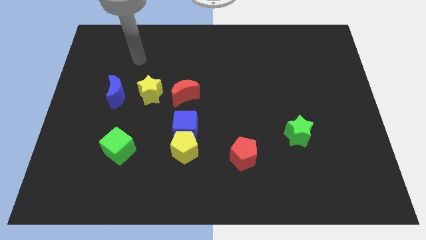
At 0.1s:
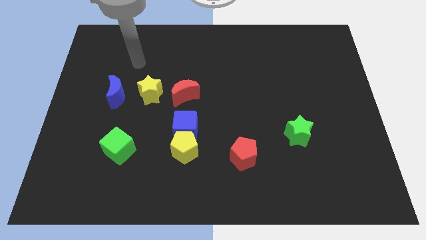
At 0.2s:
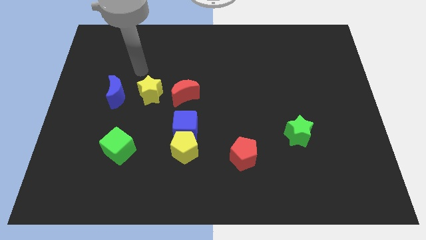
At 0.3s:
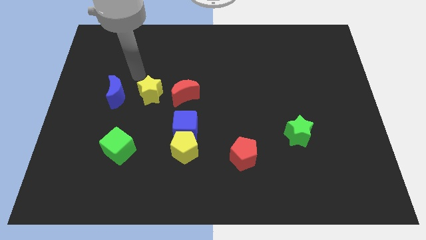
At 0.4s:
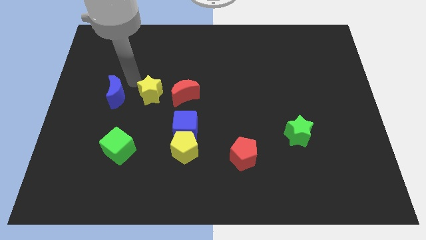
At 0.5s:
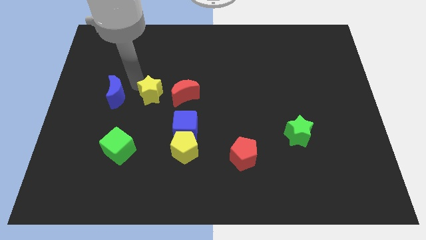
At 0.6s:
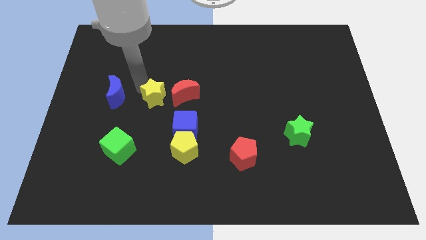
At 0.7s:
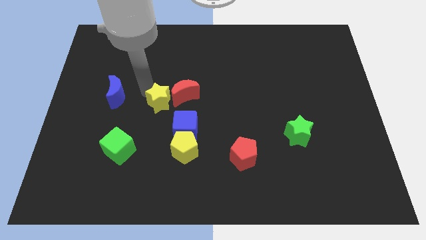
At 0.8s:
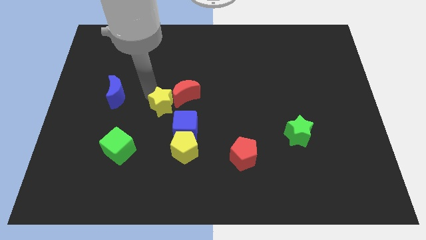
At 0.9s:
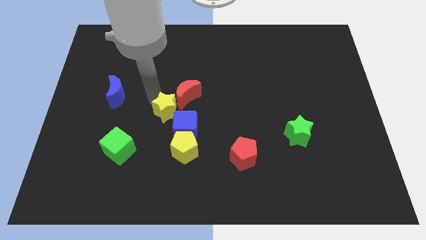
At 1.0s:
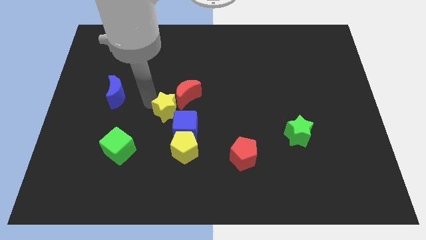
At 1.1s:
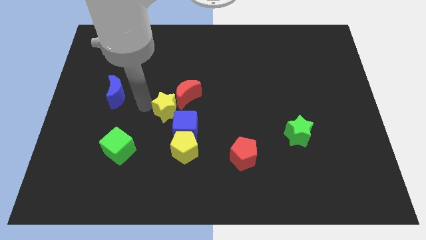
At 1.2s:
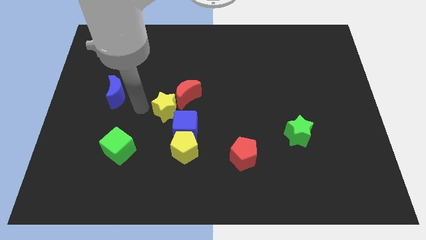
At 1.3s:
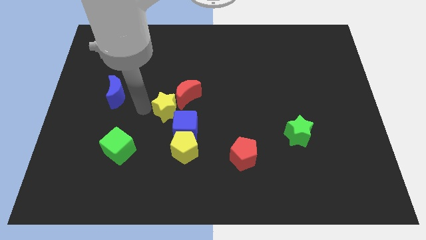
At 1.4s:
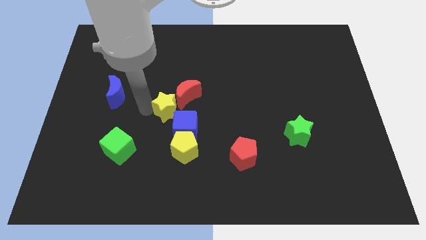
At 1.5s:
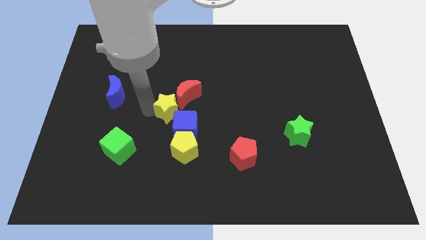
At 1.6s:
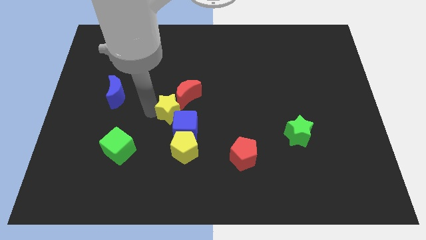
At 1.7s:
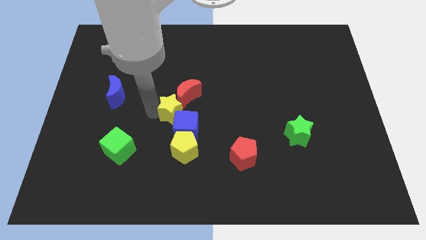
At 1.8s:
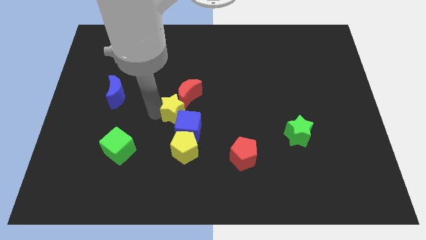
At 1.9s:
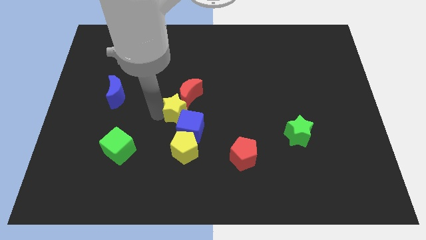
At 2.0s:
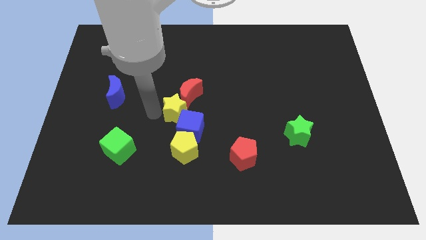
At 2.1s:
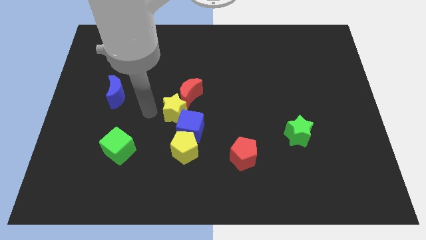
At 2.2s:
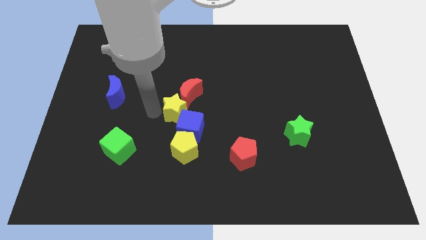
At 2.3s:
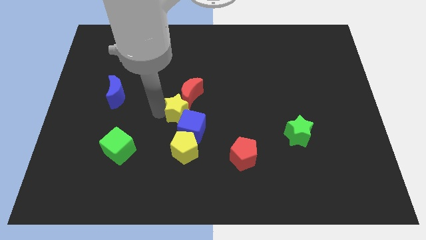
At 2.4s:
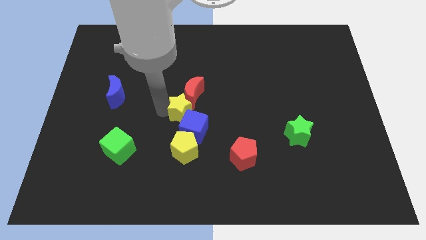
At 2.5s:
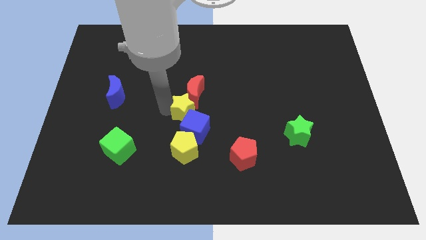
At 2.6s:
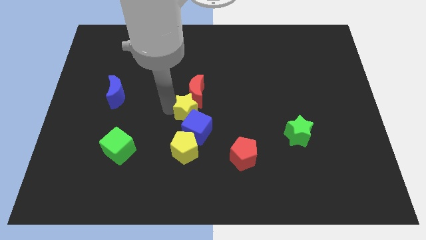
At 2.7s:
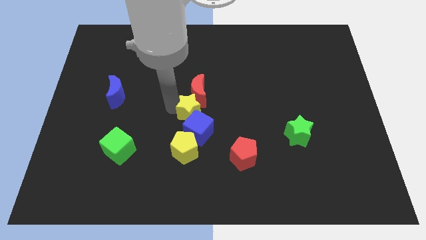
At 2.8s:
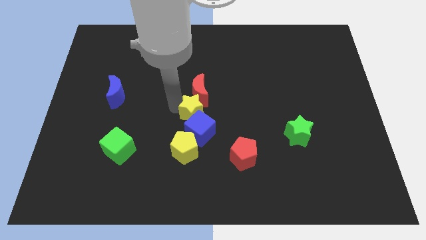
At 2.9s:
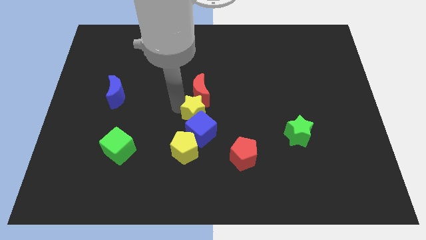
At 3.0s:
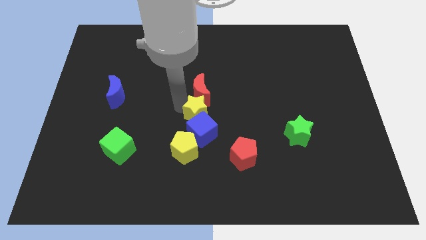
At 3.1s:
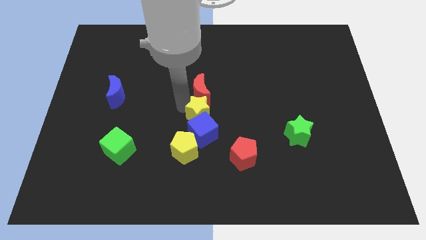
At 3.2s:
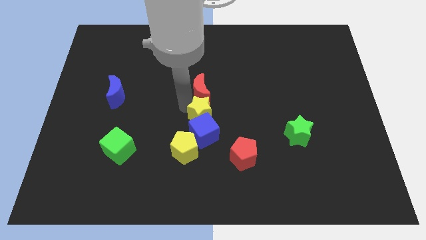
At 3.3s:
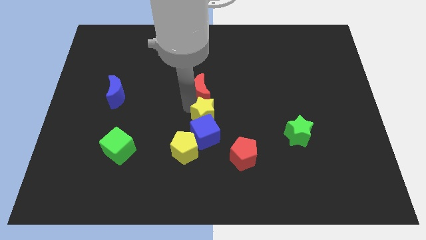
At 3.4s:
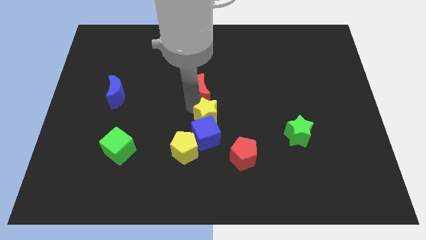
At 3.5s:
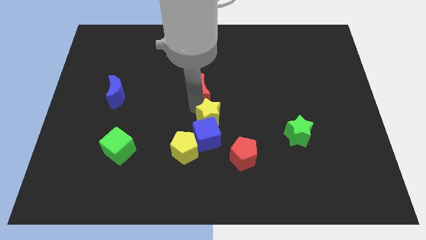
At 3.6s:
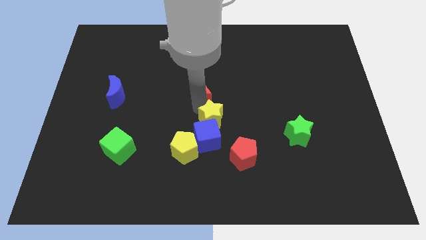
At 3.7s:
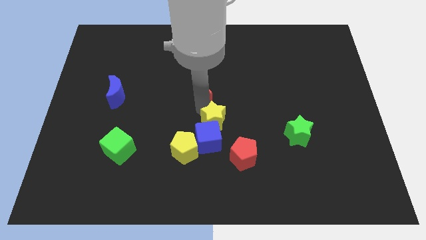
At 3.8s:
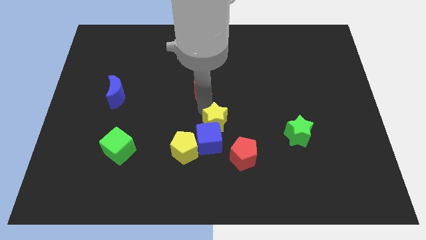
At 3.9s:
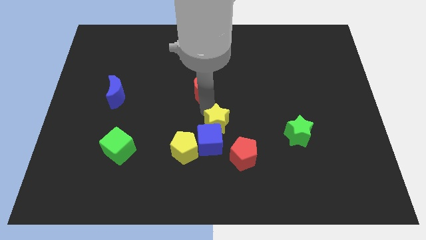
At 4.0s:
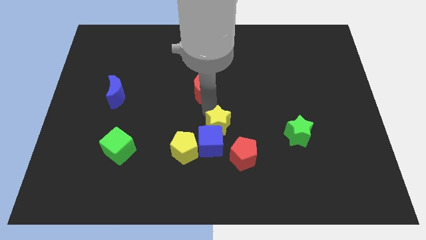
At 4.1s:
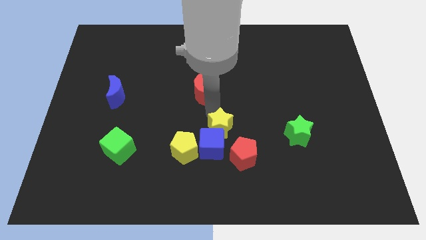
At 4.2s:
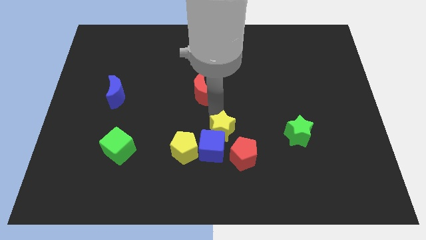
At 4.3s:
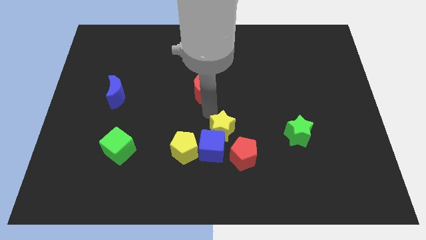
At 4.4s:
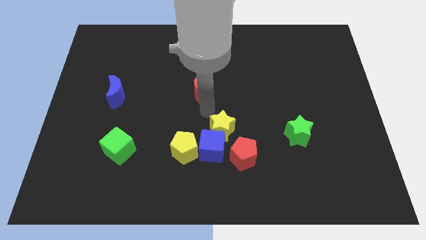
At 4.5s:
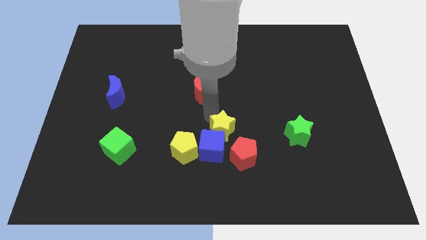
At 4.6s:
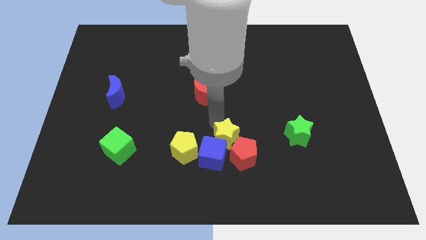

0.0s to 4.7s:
push the yellow star next to the red pentagon

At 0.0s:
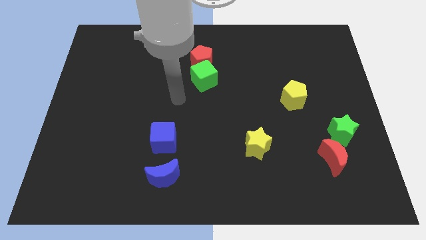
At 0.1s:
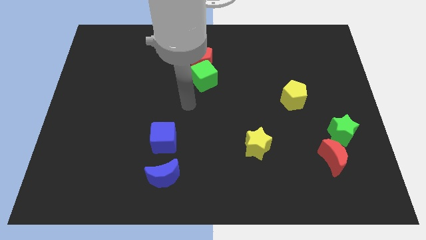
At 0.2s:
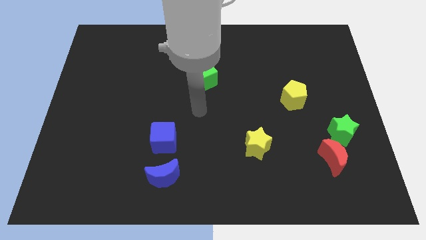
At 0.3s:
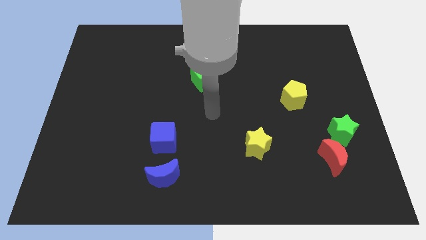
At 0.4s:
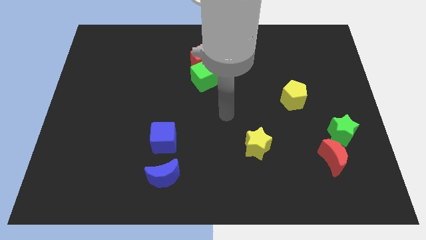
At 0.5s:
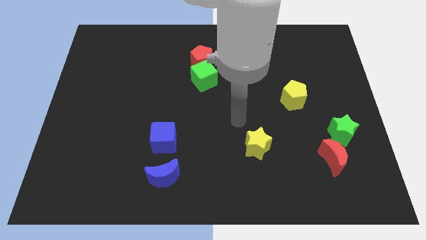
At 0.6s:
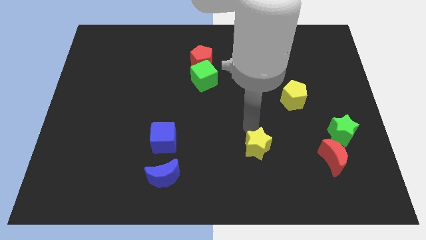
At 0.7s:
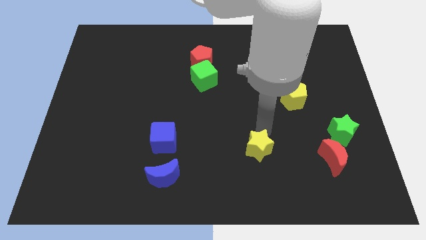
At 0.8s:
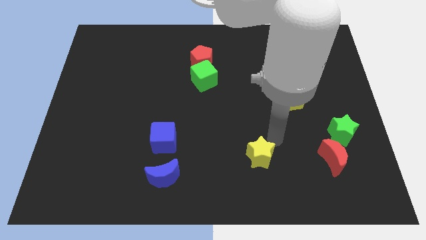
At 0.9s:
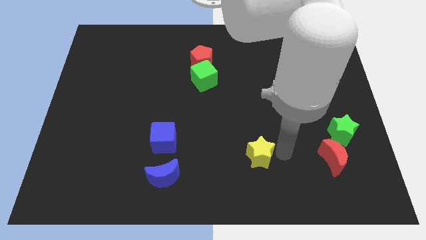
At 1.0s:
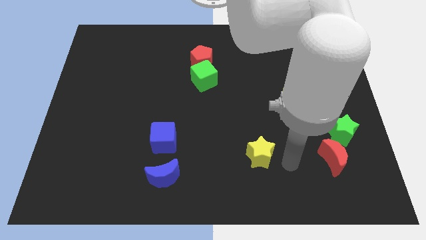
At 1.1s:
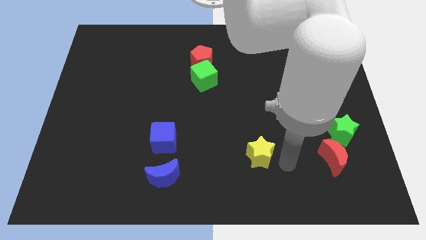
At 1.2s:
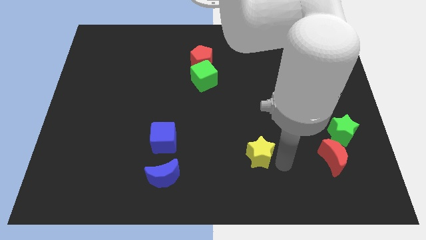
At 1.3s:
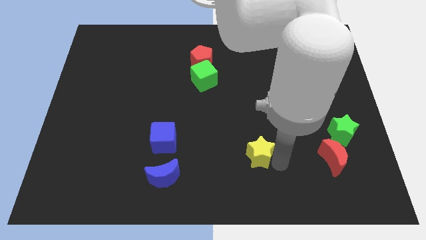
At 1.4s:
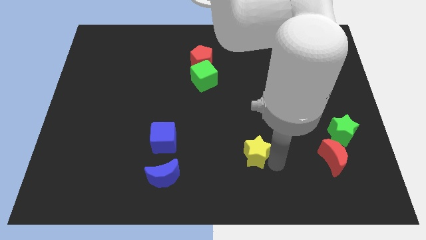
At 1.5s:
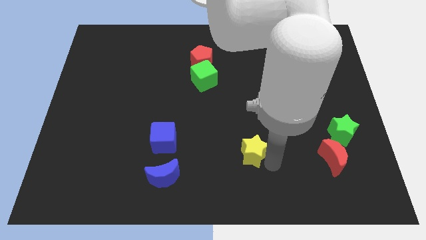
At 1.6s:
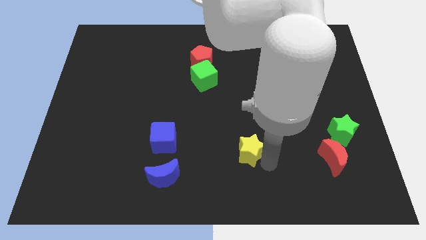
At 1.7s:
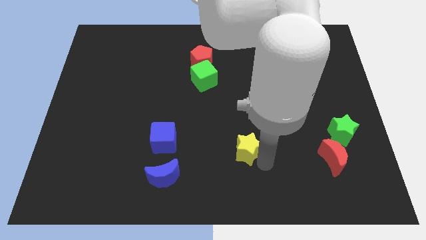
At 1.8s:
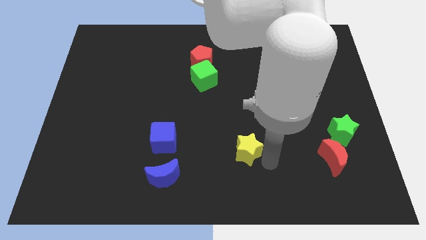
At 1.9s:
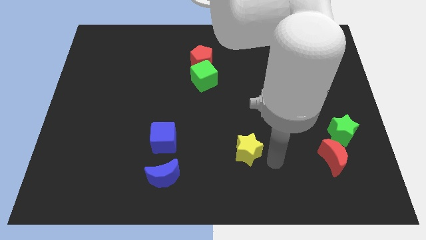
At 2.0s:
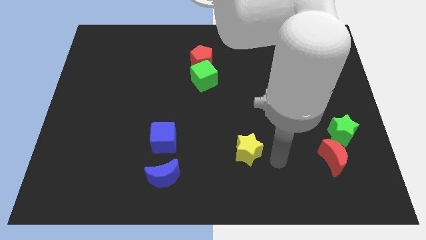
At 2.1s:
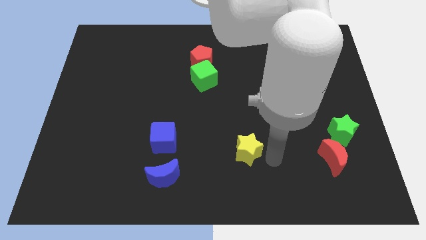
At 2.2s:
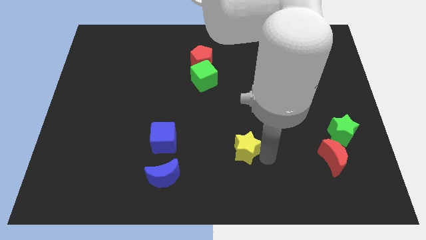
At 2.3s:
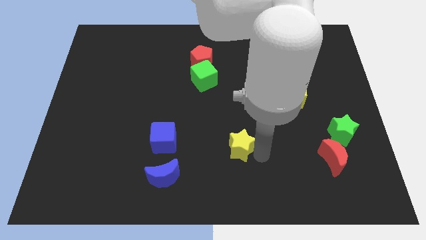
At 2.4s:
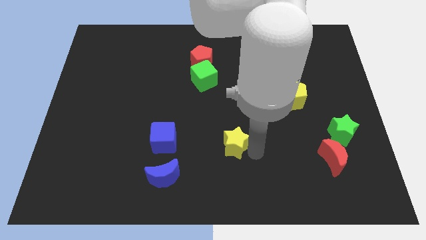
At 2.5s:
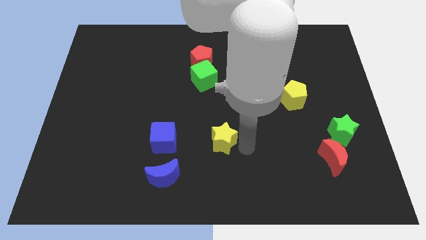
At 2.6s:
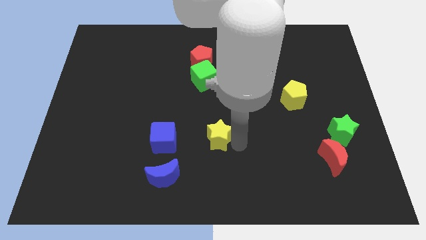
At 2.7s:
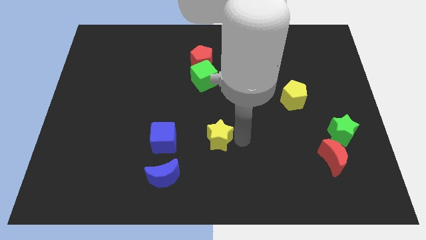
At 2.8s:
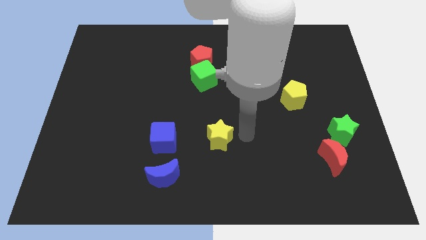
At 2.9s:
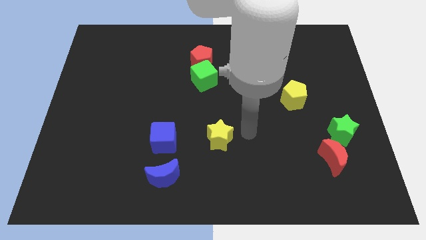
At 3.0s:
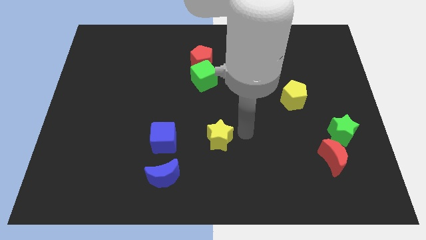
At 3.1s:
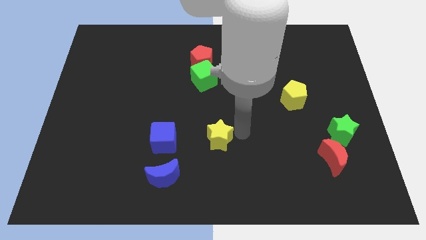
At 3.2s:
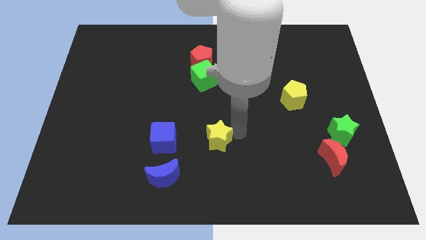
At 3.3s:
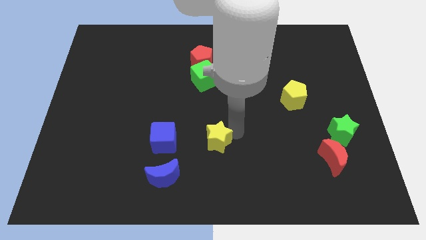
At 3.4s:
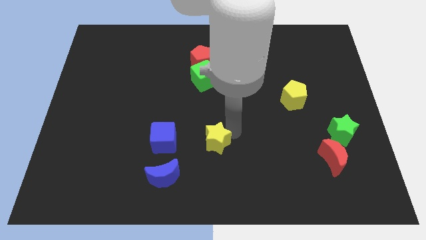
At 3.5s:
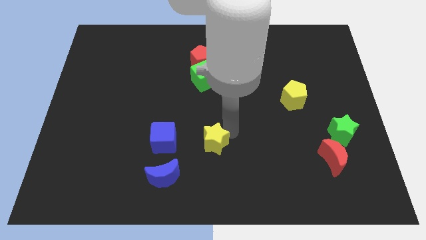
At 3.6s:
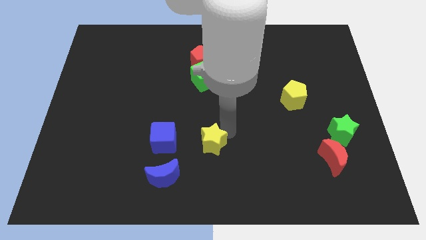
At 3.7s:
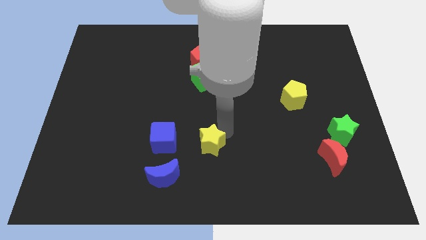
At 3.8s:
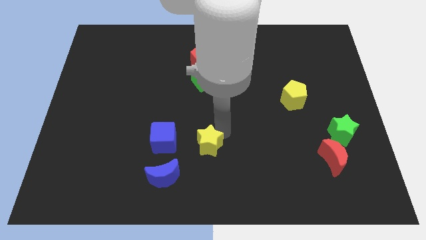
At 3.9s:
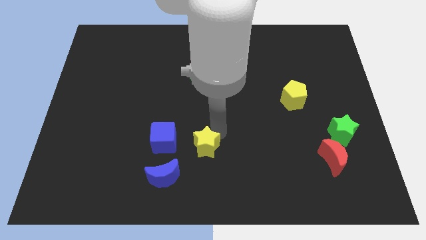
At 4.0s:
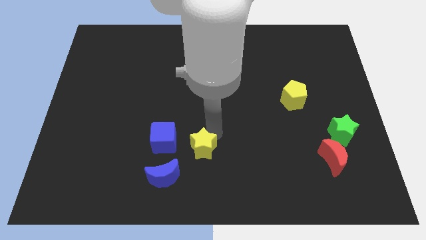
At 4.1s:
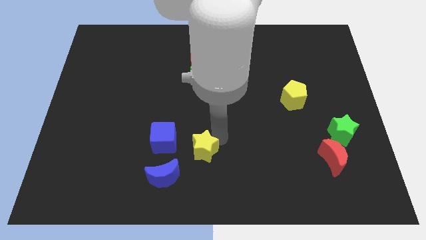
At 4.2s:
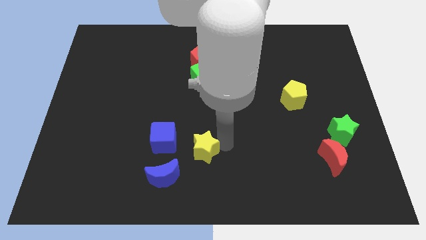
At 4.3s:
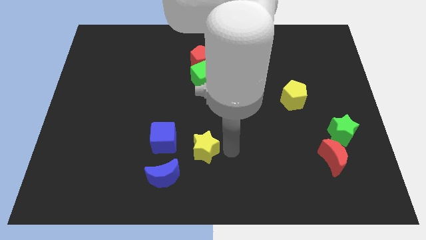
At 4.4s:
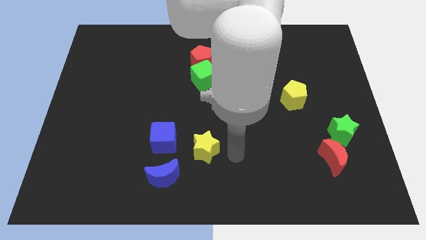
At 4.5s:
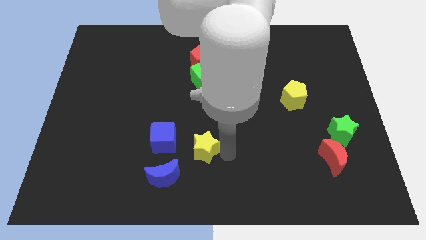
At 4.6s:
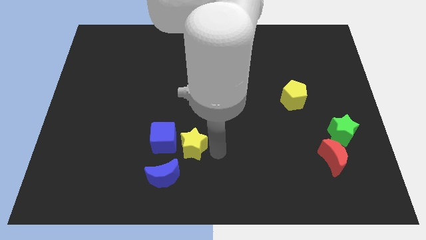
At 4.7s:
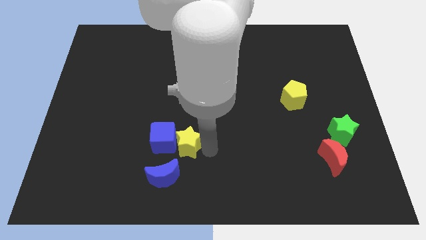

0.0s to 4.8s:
move the yellow star next to the blue cube
